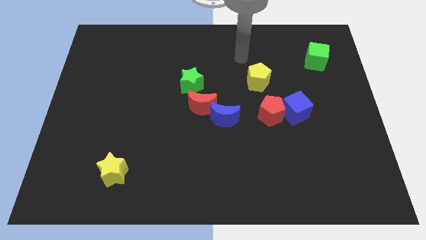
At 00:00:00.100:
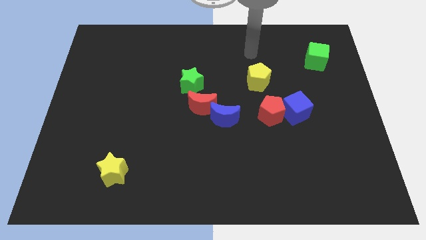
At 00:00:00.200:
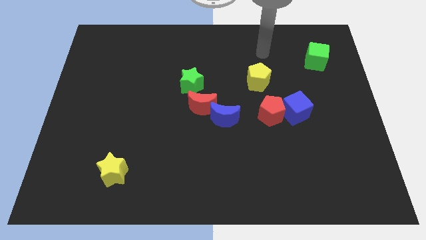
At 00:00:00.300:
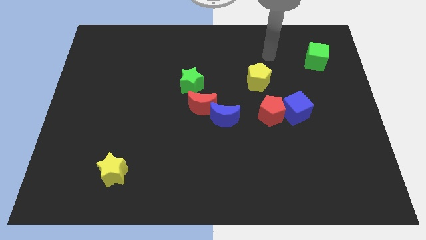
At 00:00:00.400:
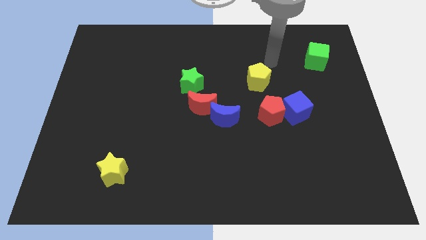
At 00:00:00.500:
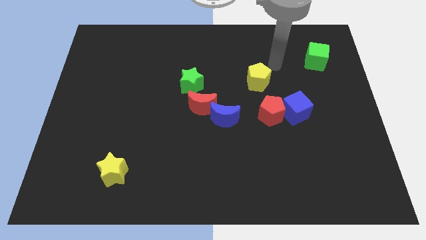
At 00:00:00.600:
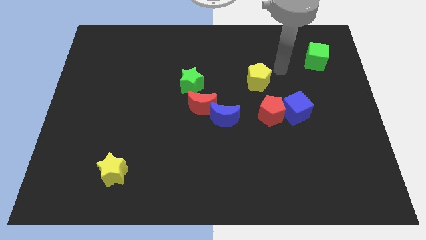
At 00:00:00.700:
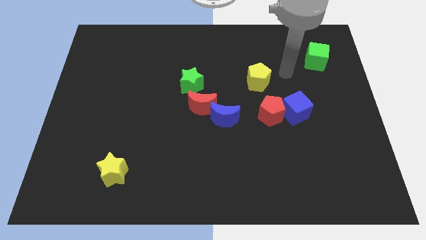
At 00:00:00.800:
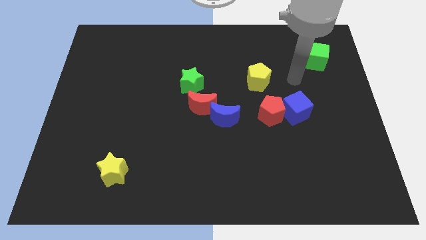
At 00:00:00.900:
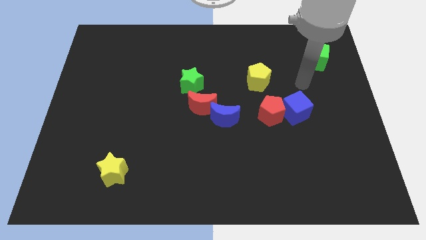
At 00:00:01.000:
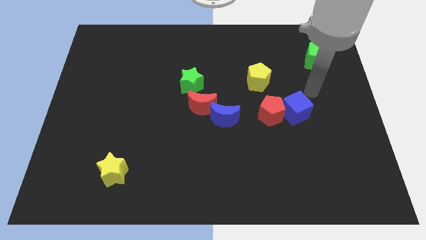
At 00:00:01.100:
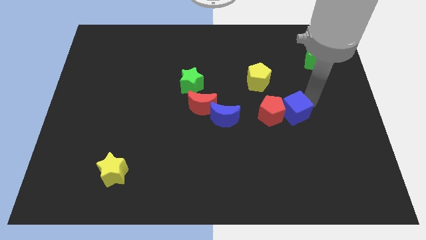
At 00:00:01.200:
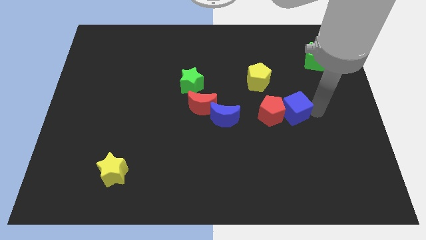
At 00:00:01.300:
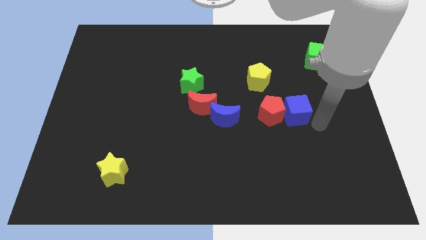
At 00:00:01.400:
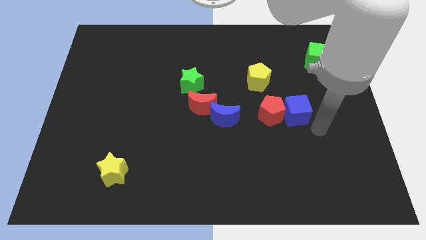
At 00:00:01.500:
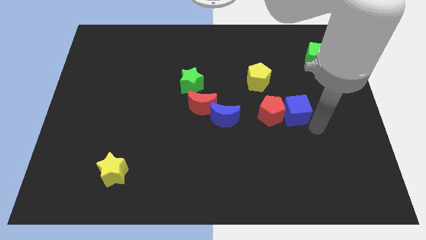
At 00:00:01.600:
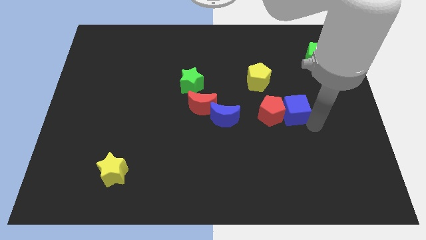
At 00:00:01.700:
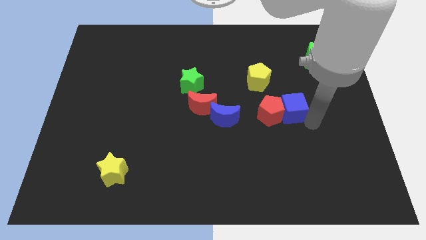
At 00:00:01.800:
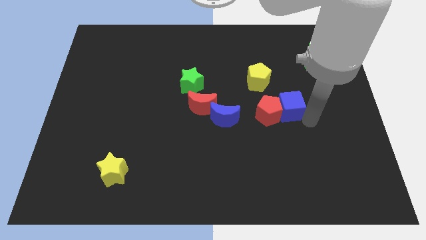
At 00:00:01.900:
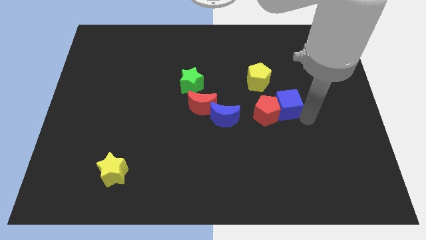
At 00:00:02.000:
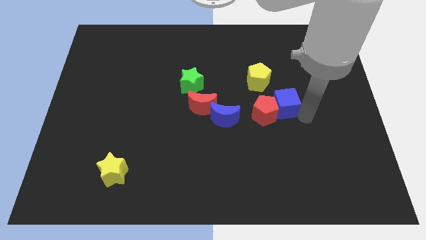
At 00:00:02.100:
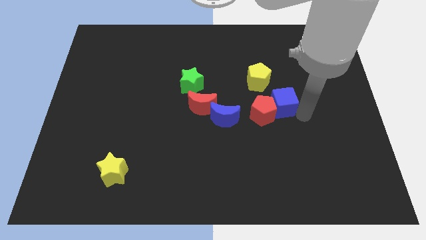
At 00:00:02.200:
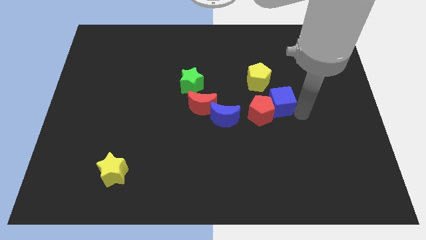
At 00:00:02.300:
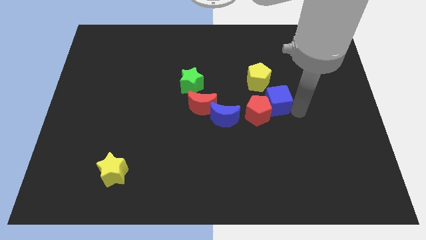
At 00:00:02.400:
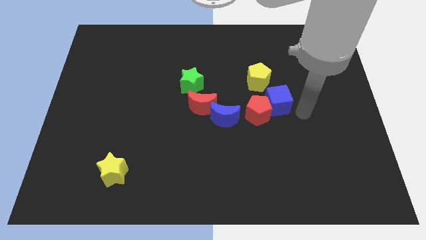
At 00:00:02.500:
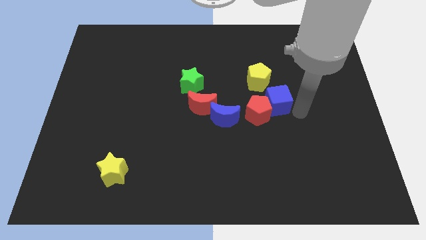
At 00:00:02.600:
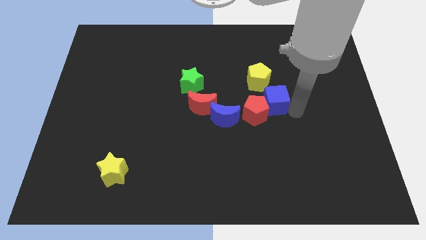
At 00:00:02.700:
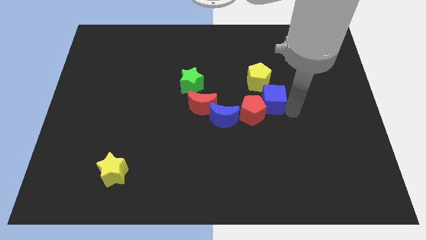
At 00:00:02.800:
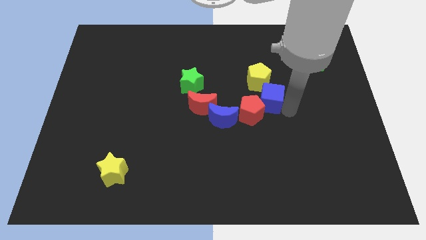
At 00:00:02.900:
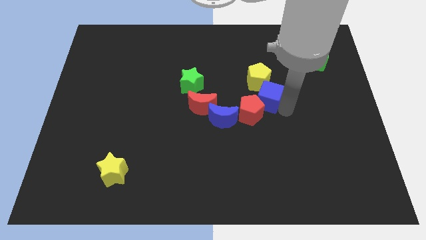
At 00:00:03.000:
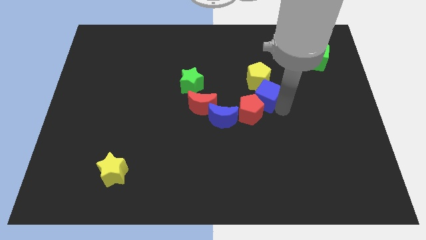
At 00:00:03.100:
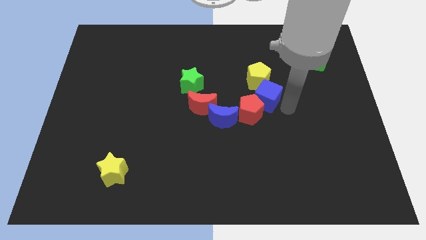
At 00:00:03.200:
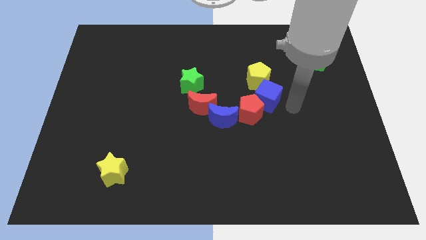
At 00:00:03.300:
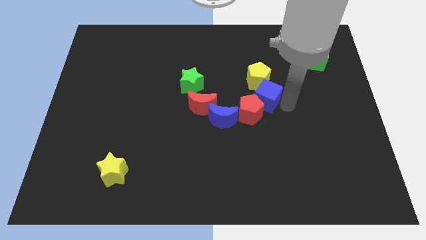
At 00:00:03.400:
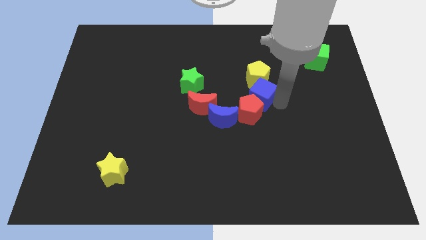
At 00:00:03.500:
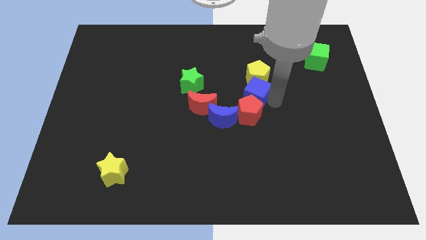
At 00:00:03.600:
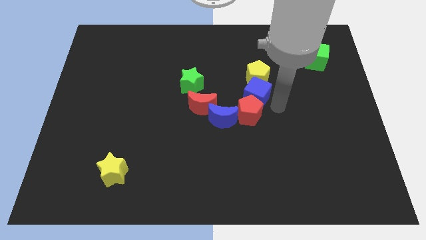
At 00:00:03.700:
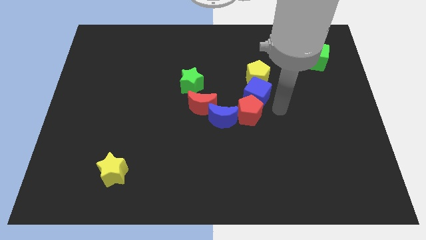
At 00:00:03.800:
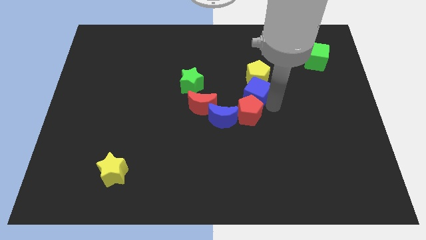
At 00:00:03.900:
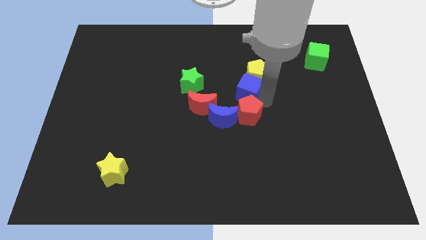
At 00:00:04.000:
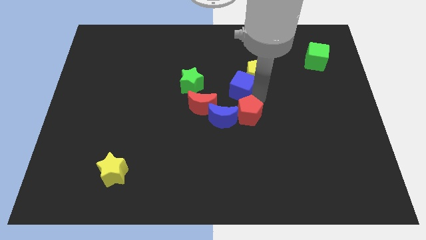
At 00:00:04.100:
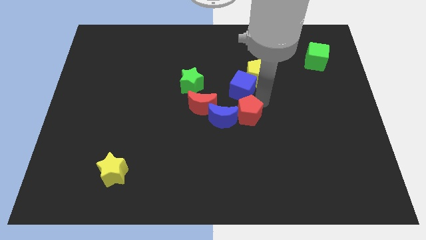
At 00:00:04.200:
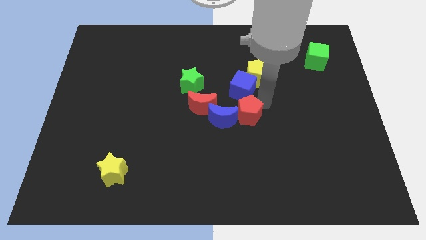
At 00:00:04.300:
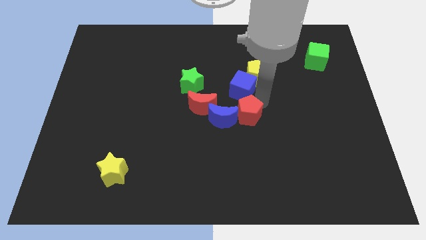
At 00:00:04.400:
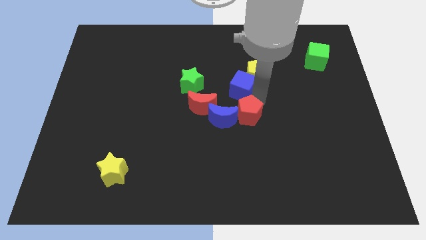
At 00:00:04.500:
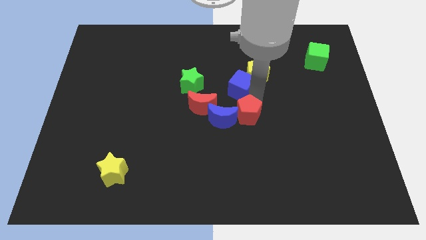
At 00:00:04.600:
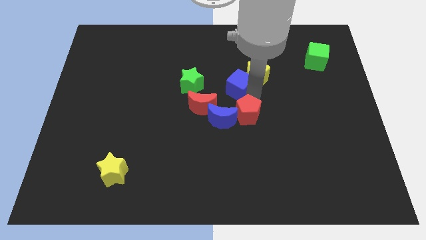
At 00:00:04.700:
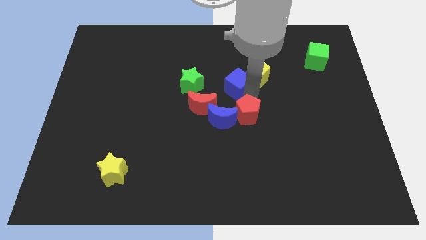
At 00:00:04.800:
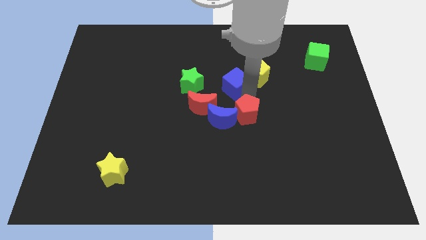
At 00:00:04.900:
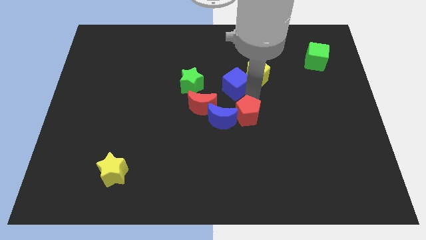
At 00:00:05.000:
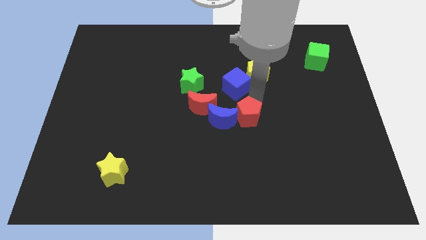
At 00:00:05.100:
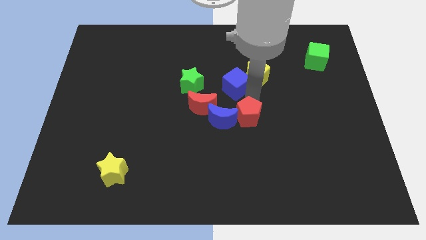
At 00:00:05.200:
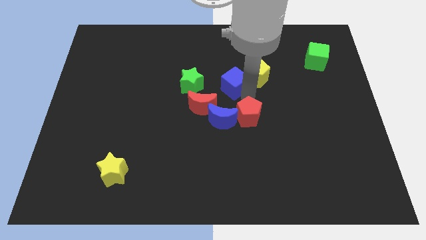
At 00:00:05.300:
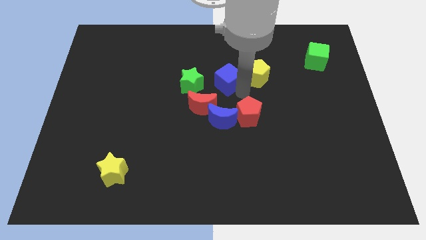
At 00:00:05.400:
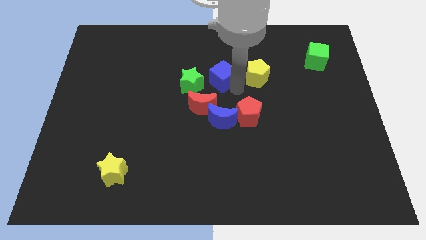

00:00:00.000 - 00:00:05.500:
push the blue cube diagonally up and to the right of the green star
